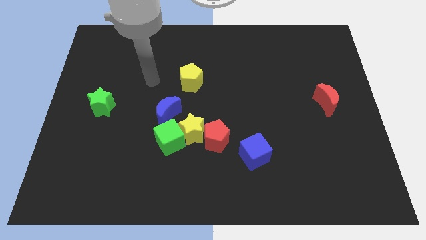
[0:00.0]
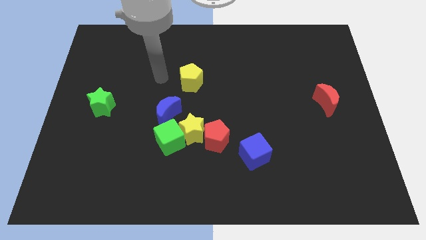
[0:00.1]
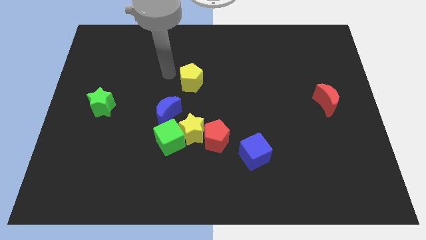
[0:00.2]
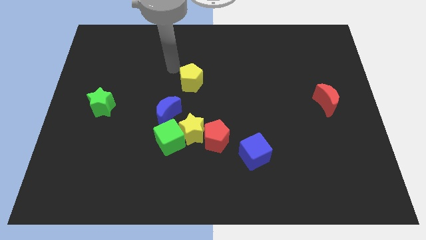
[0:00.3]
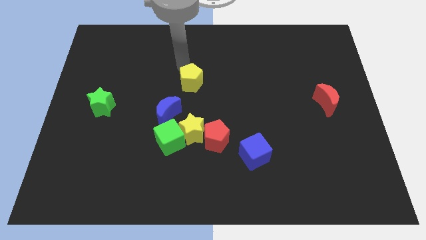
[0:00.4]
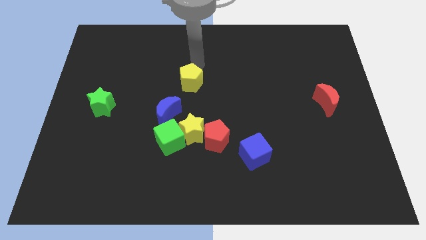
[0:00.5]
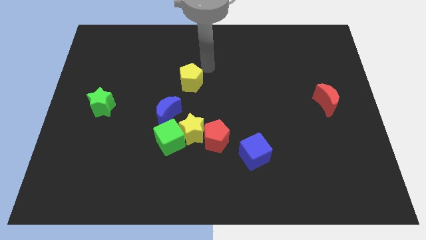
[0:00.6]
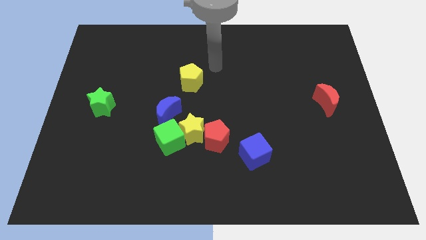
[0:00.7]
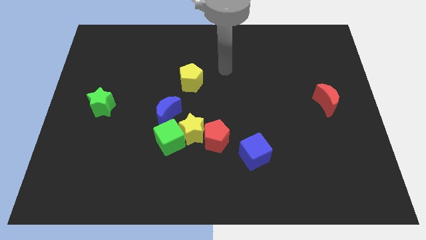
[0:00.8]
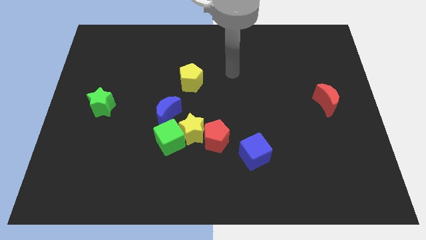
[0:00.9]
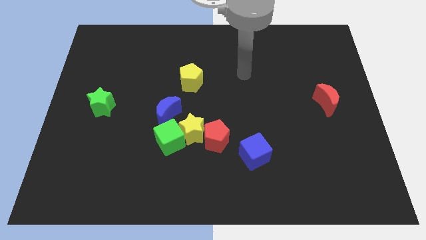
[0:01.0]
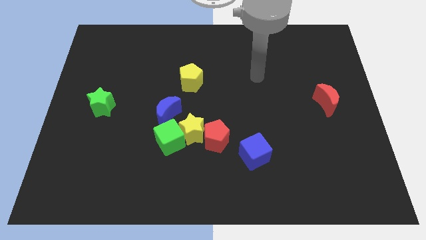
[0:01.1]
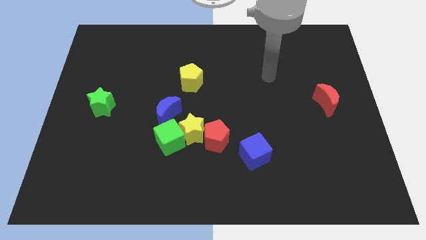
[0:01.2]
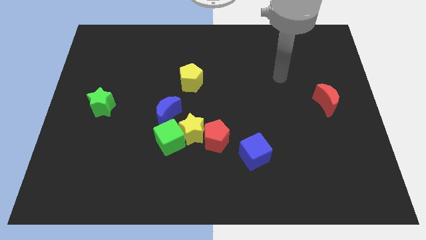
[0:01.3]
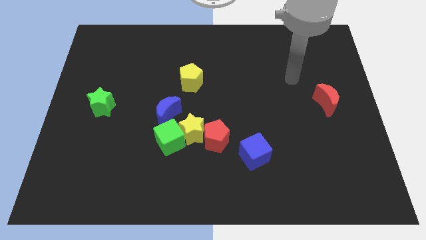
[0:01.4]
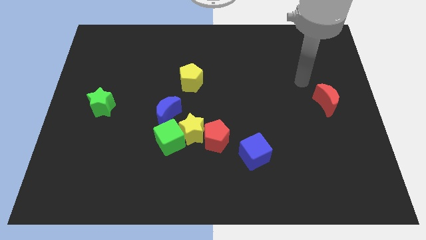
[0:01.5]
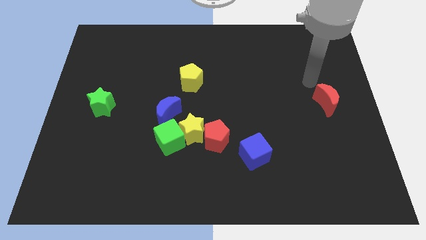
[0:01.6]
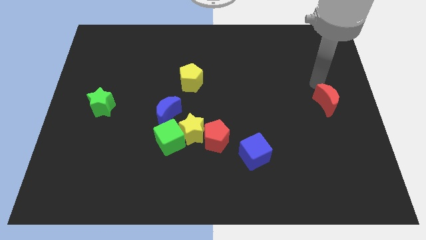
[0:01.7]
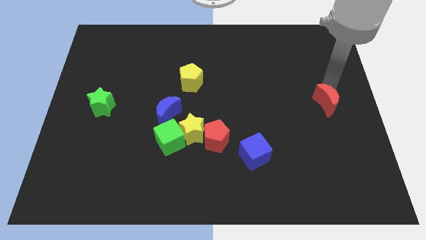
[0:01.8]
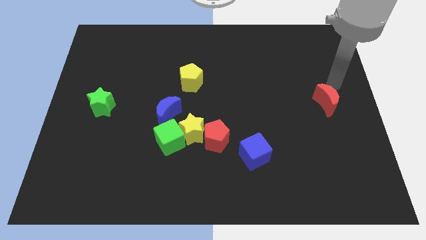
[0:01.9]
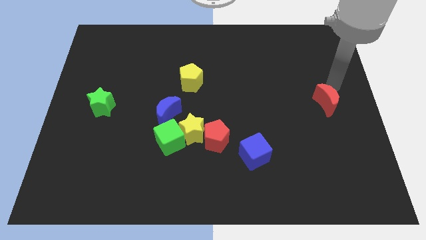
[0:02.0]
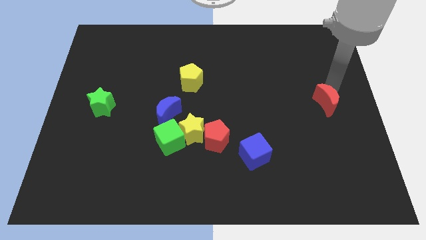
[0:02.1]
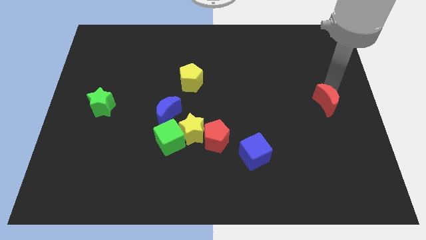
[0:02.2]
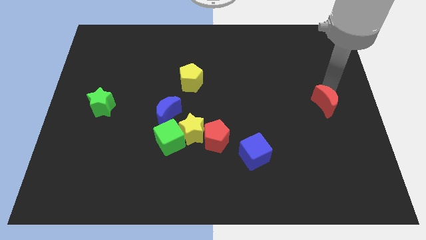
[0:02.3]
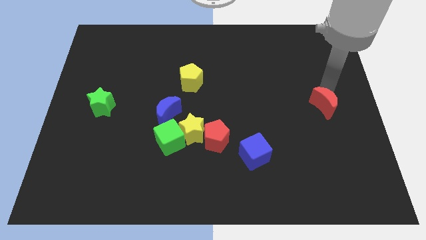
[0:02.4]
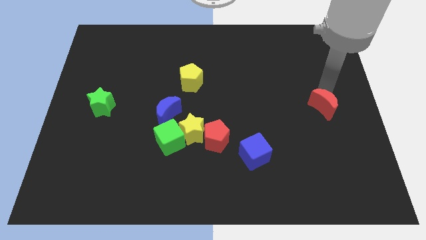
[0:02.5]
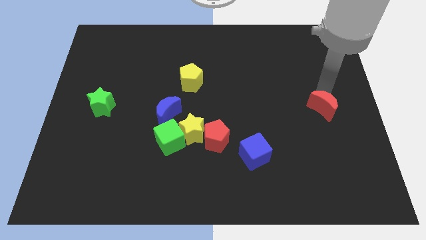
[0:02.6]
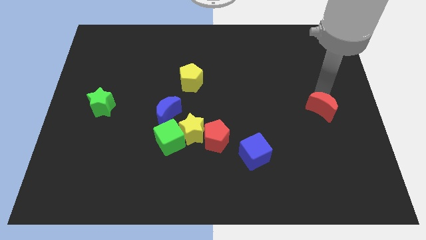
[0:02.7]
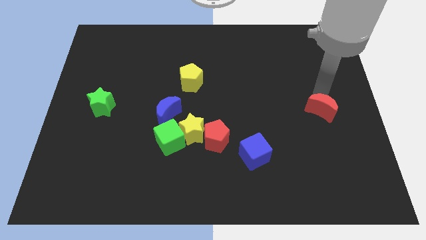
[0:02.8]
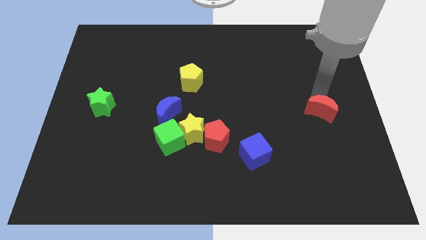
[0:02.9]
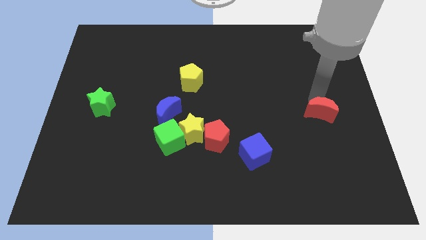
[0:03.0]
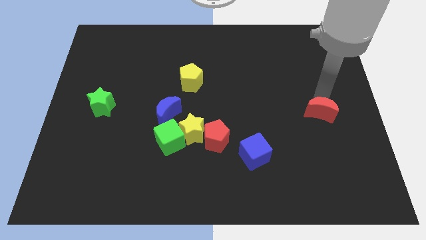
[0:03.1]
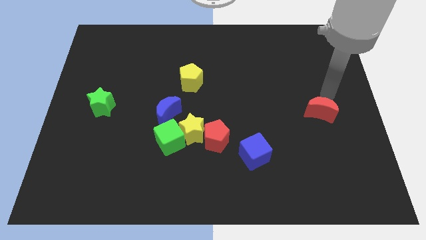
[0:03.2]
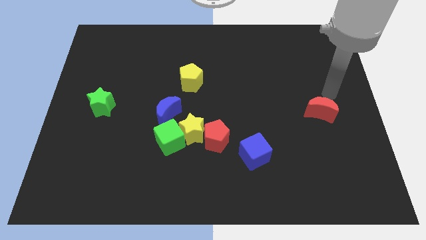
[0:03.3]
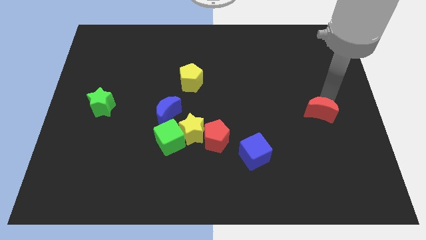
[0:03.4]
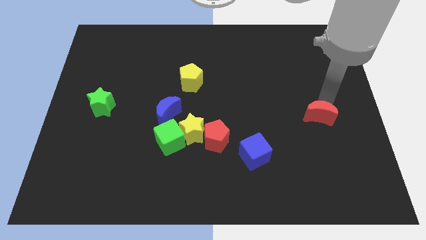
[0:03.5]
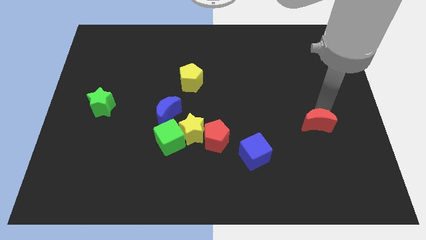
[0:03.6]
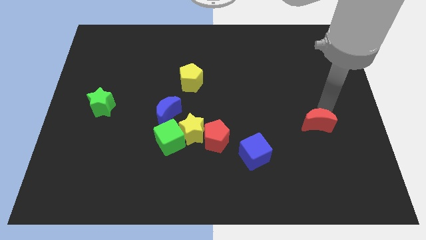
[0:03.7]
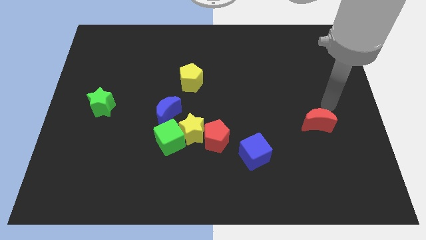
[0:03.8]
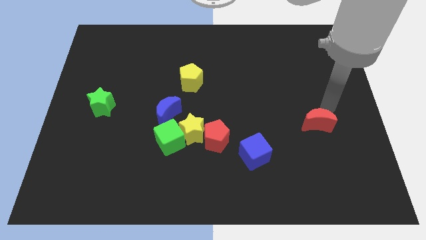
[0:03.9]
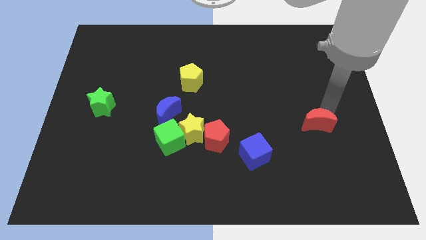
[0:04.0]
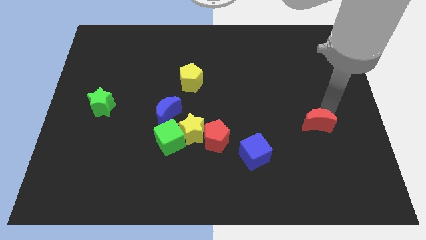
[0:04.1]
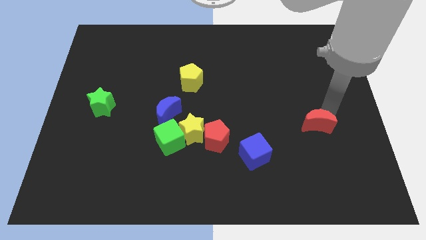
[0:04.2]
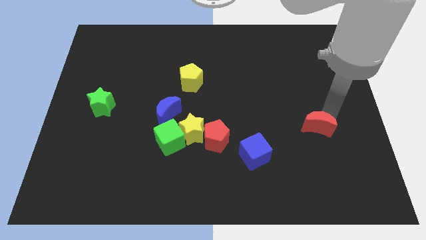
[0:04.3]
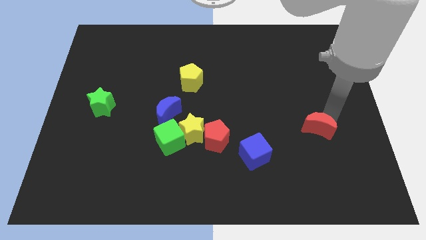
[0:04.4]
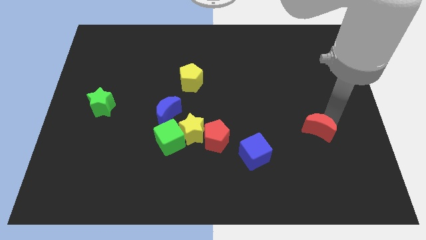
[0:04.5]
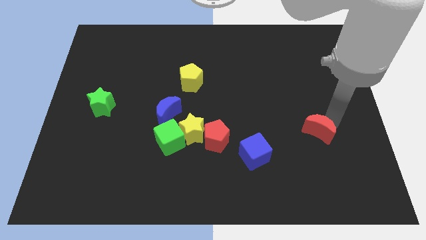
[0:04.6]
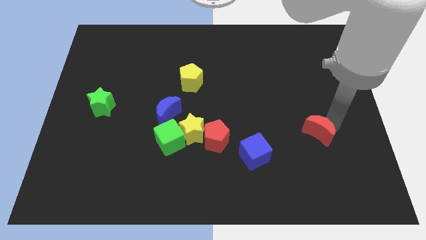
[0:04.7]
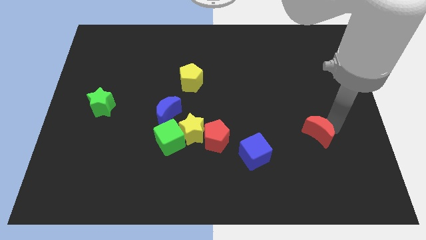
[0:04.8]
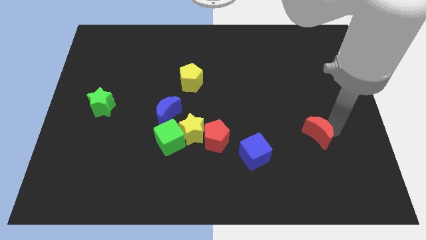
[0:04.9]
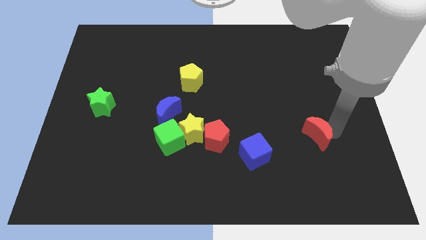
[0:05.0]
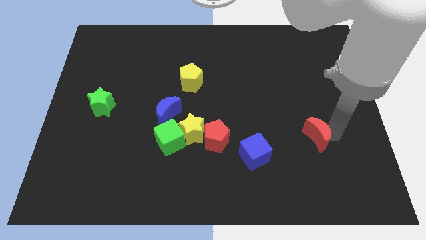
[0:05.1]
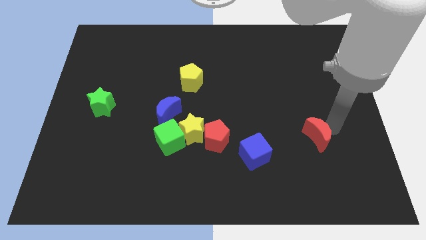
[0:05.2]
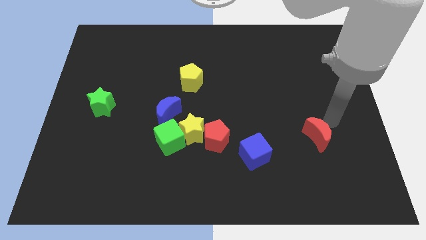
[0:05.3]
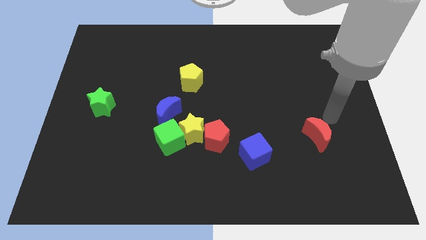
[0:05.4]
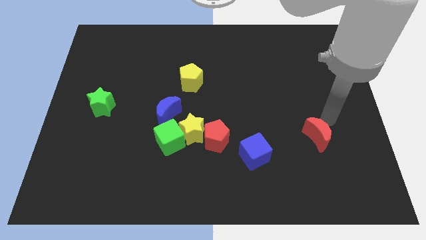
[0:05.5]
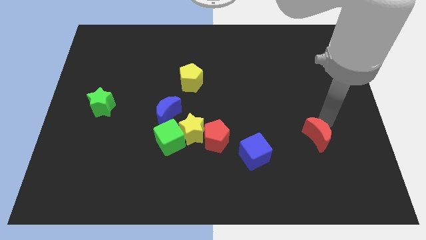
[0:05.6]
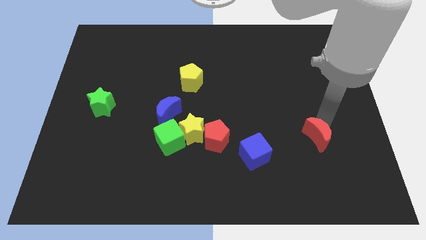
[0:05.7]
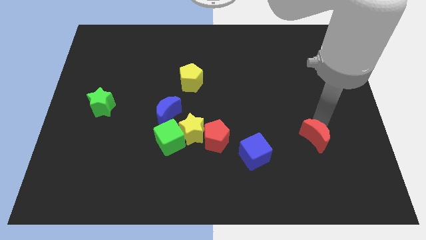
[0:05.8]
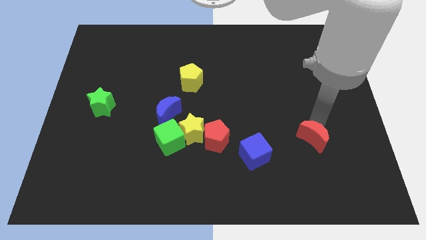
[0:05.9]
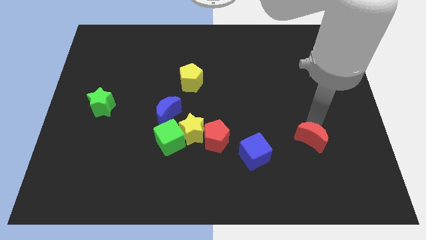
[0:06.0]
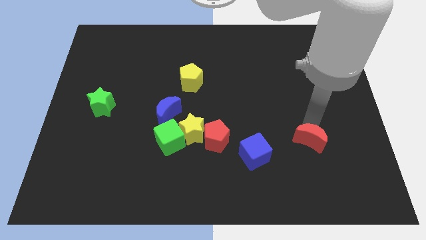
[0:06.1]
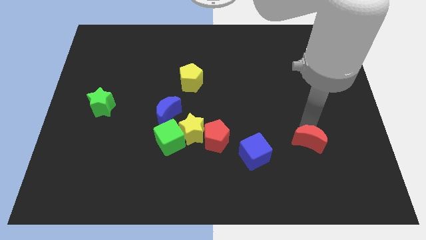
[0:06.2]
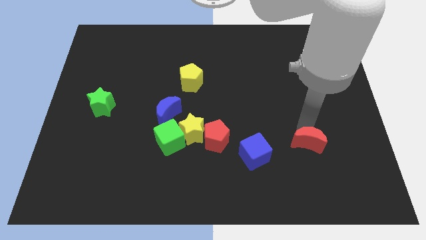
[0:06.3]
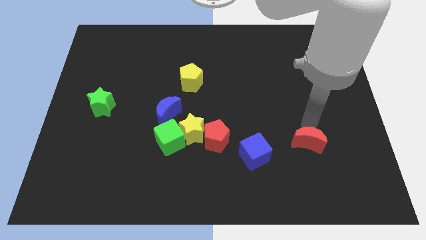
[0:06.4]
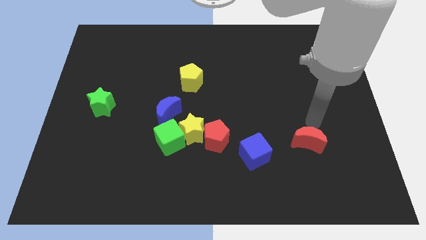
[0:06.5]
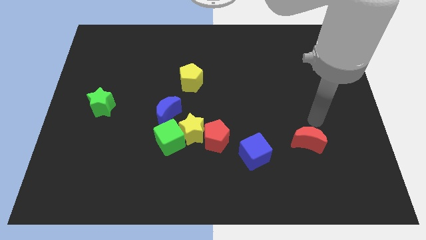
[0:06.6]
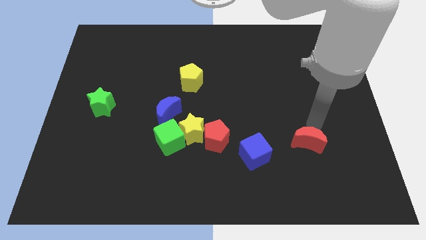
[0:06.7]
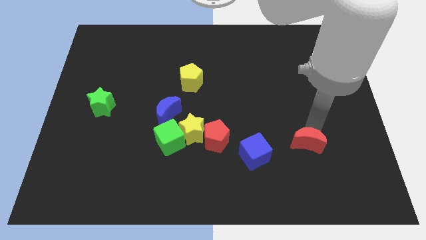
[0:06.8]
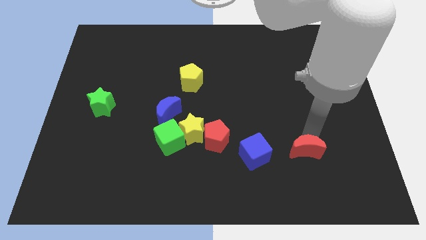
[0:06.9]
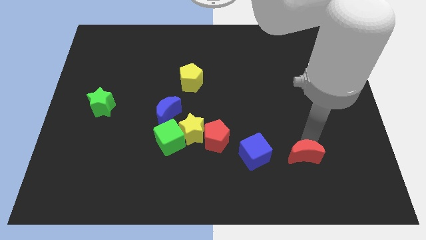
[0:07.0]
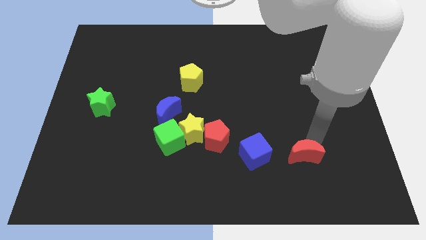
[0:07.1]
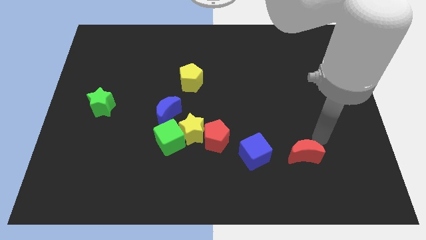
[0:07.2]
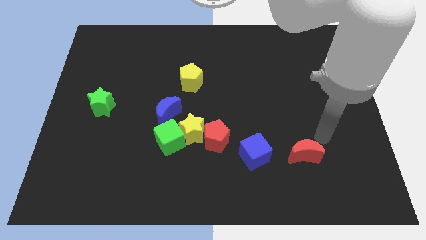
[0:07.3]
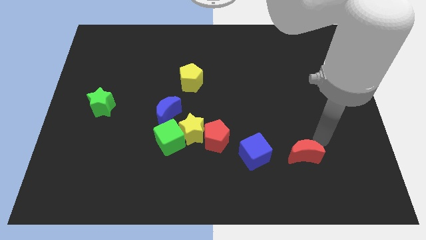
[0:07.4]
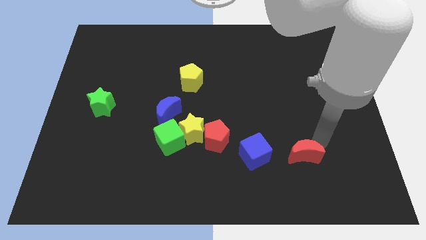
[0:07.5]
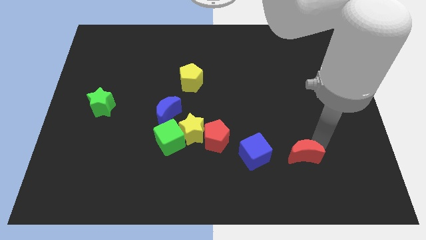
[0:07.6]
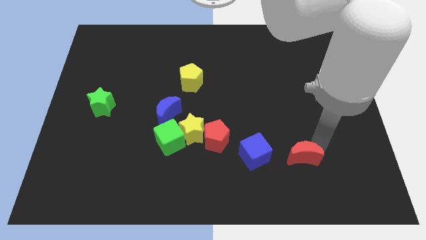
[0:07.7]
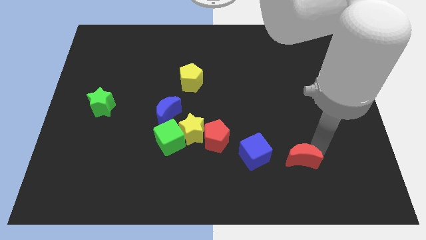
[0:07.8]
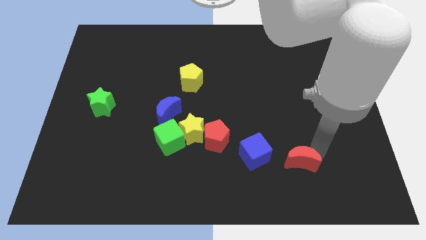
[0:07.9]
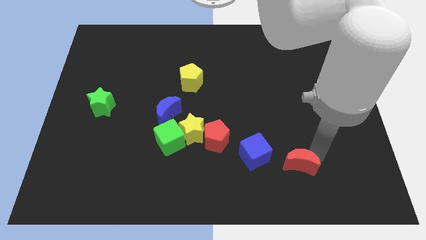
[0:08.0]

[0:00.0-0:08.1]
slide the red moon to the bottom right side of the blue cube
